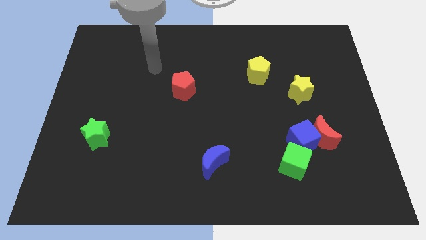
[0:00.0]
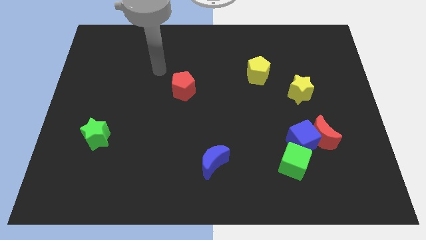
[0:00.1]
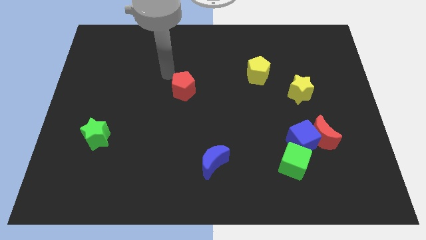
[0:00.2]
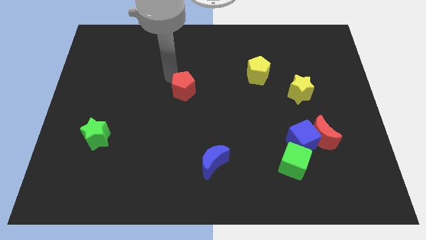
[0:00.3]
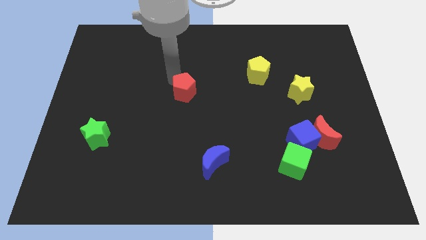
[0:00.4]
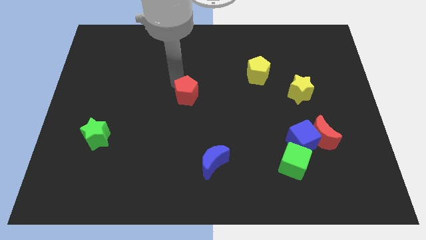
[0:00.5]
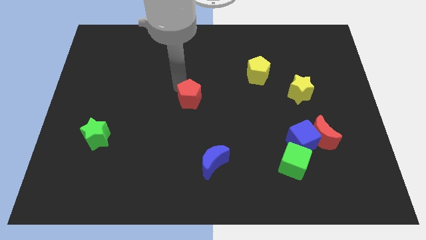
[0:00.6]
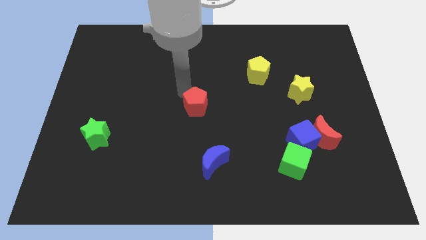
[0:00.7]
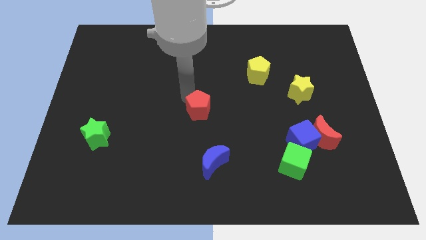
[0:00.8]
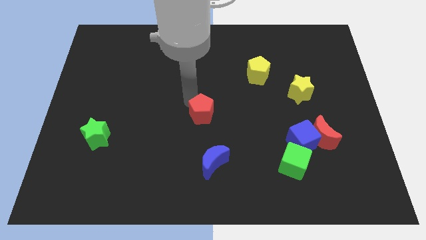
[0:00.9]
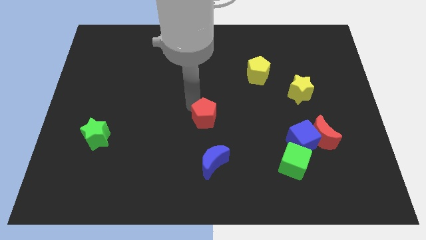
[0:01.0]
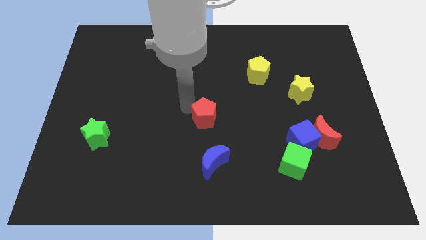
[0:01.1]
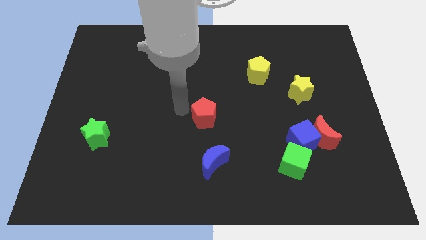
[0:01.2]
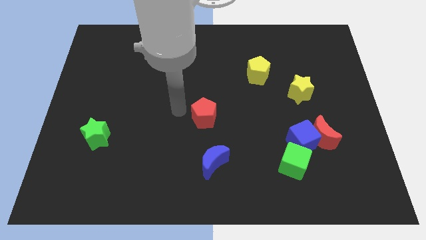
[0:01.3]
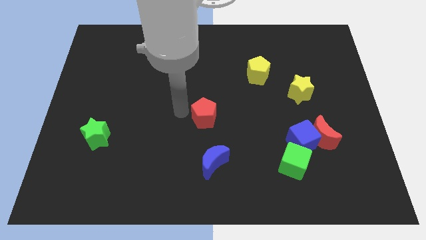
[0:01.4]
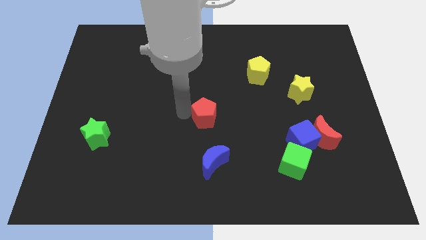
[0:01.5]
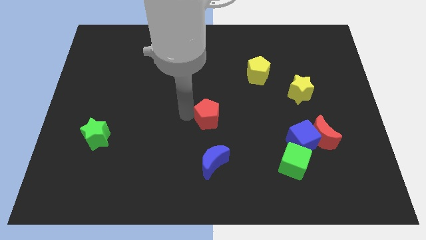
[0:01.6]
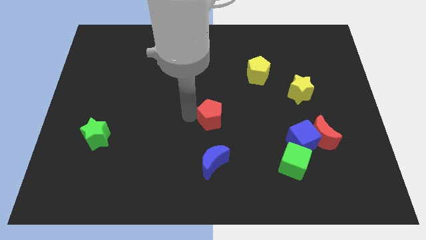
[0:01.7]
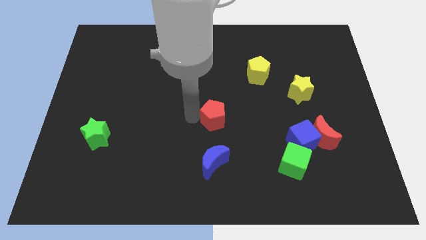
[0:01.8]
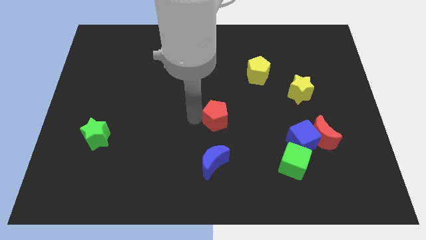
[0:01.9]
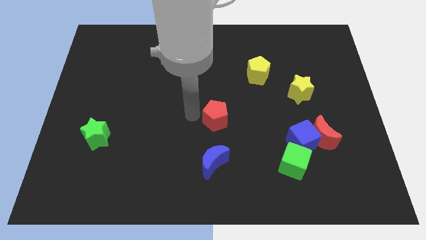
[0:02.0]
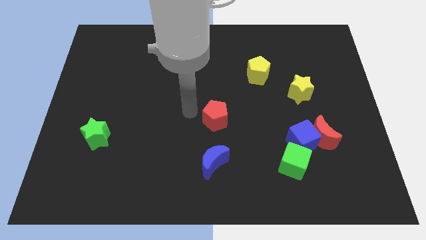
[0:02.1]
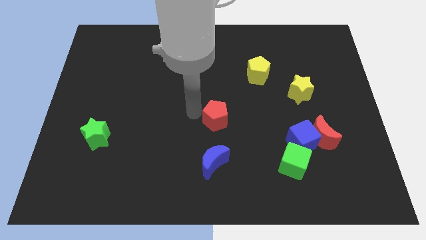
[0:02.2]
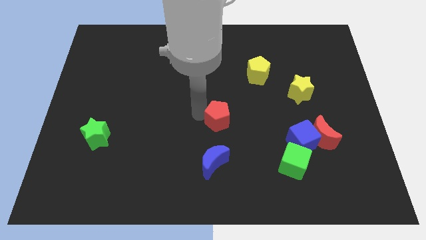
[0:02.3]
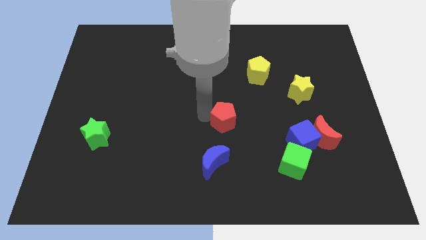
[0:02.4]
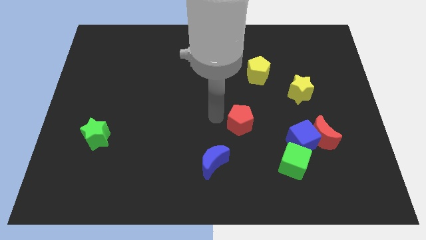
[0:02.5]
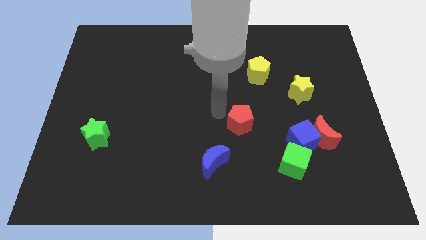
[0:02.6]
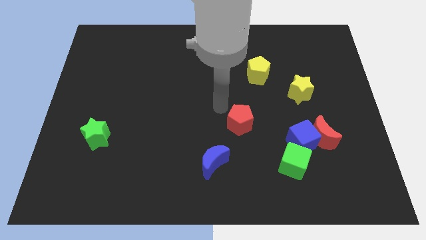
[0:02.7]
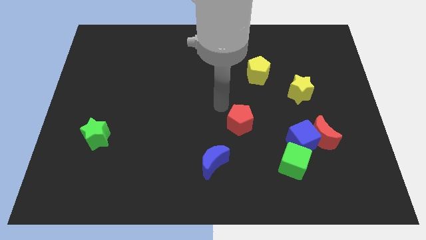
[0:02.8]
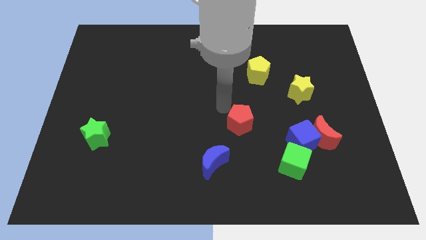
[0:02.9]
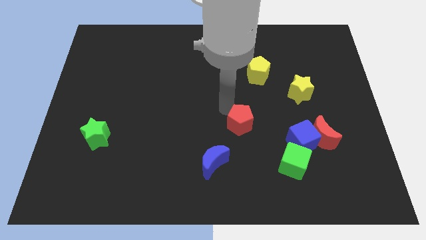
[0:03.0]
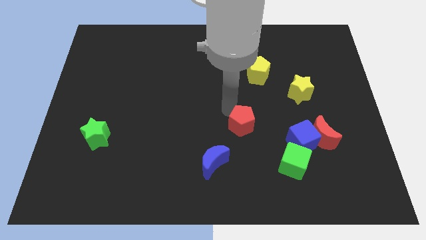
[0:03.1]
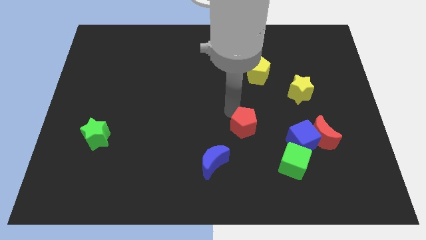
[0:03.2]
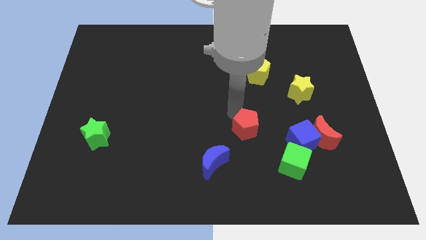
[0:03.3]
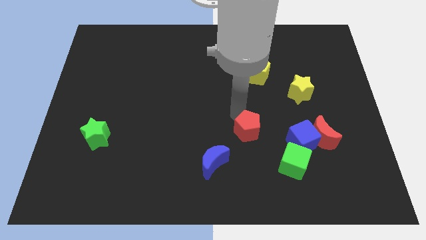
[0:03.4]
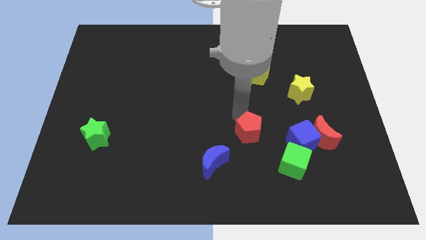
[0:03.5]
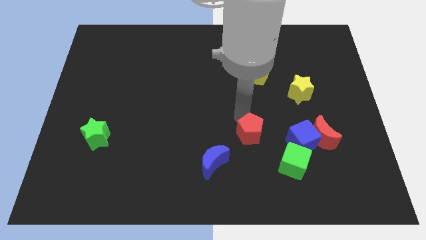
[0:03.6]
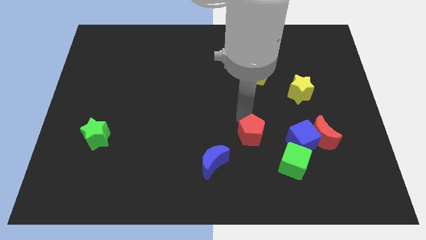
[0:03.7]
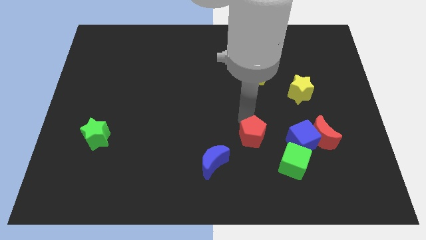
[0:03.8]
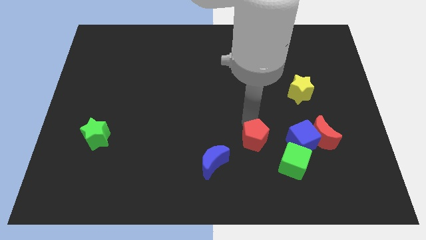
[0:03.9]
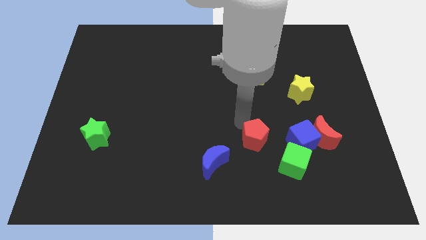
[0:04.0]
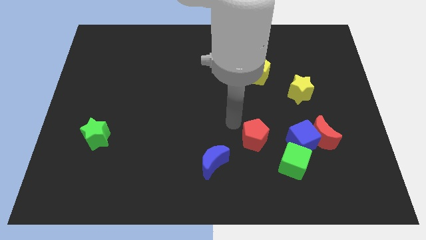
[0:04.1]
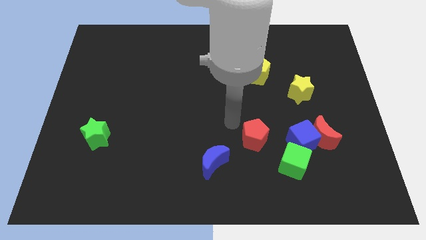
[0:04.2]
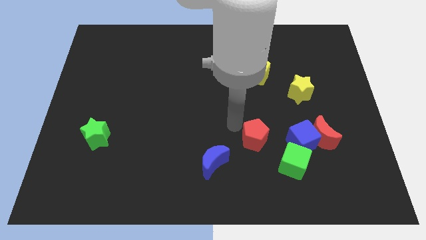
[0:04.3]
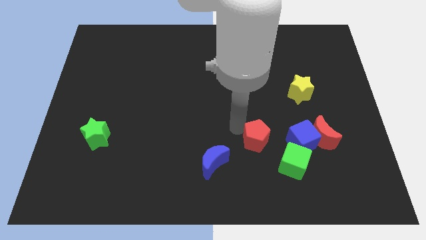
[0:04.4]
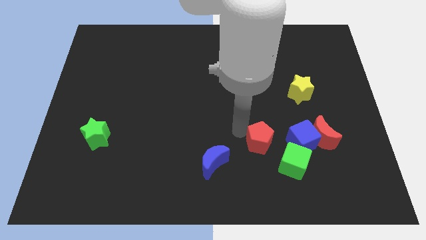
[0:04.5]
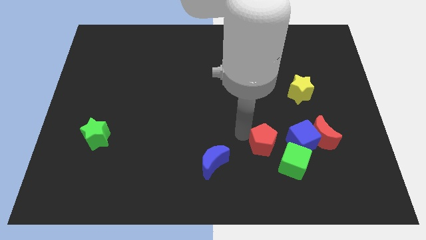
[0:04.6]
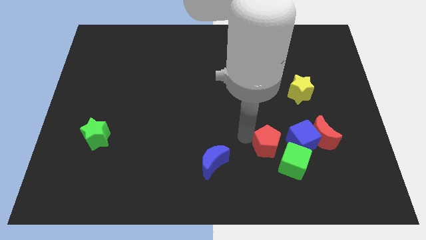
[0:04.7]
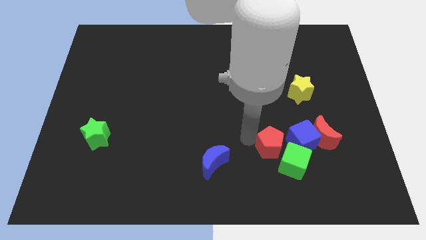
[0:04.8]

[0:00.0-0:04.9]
move the red pentagon next to the green cube

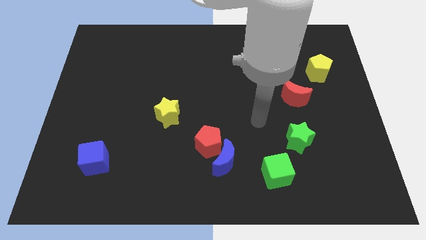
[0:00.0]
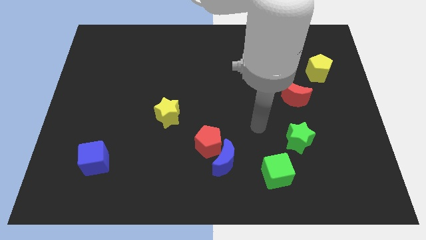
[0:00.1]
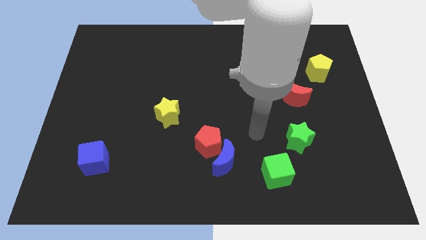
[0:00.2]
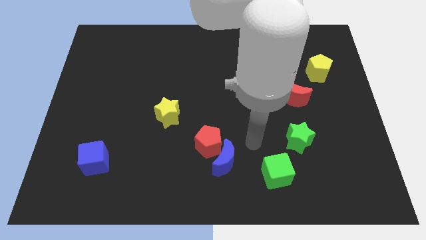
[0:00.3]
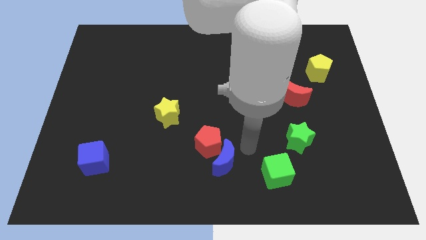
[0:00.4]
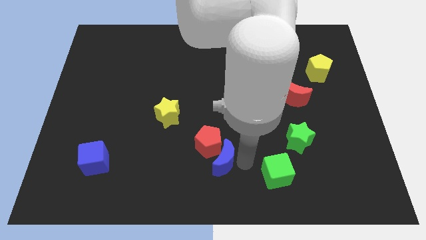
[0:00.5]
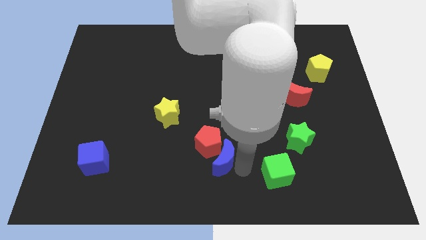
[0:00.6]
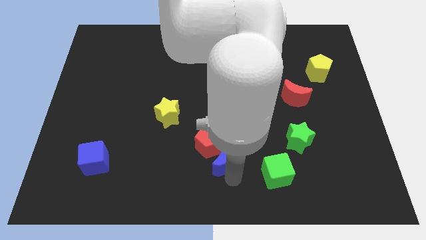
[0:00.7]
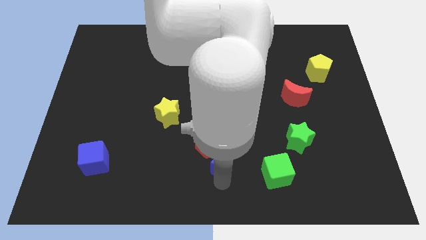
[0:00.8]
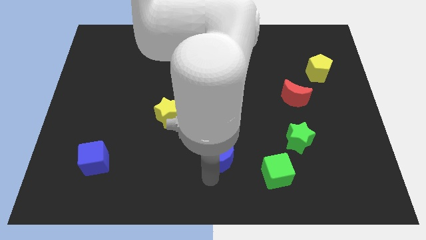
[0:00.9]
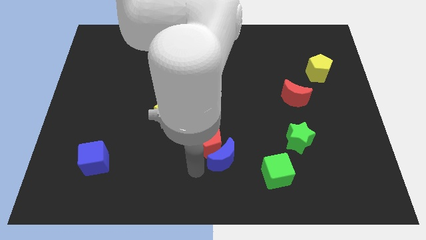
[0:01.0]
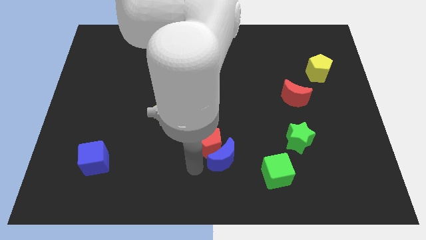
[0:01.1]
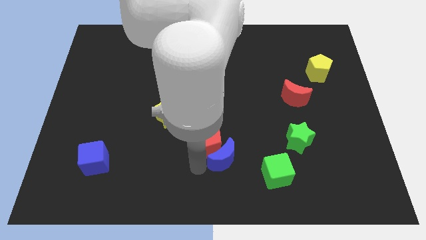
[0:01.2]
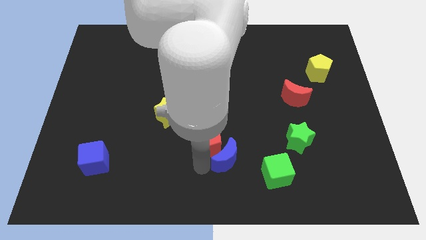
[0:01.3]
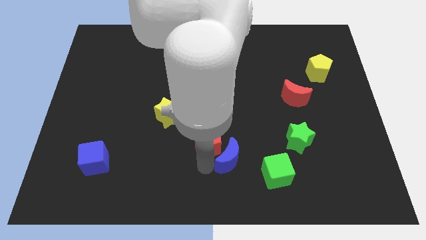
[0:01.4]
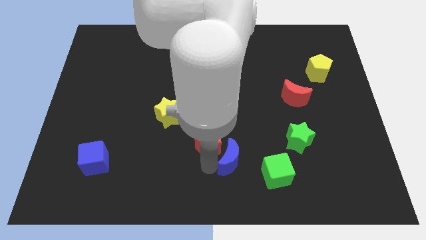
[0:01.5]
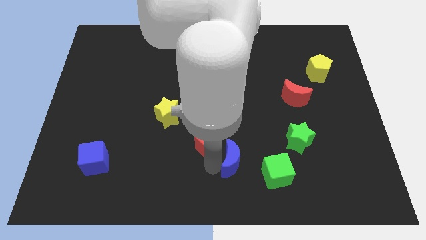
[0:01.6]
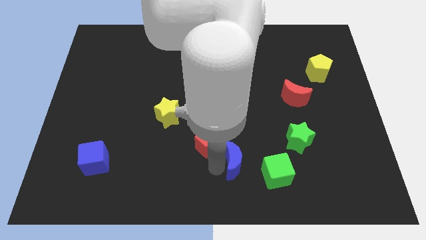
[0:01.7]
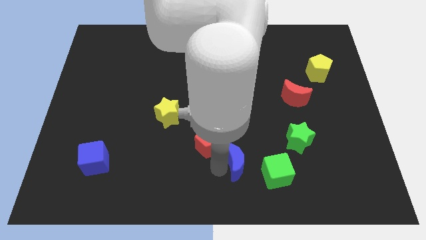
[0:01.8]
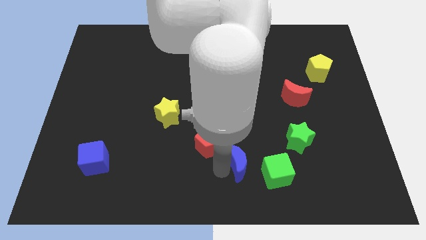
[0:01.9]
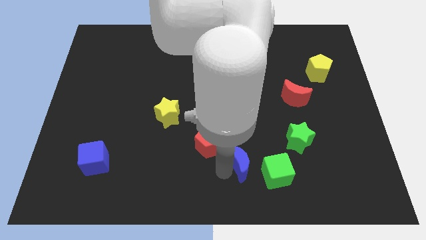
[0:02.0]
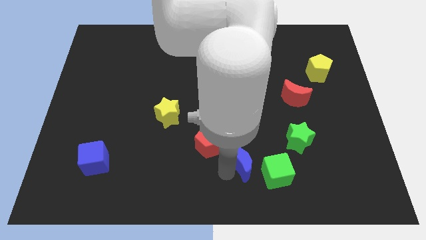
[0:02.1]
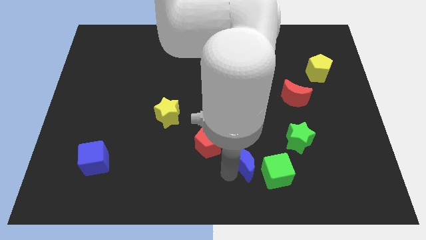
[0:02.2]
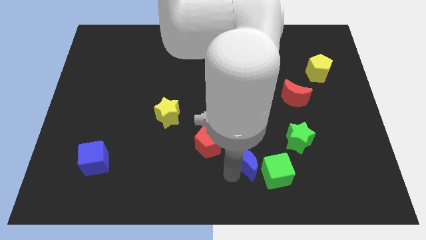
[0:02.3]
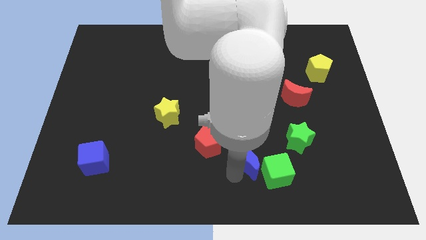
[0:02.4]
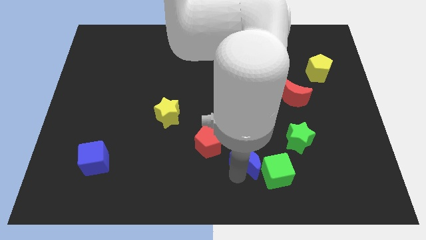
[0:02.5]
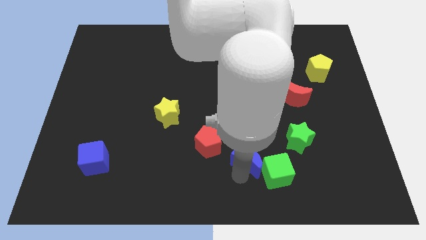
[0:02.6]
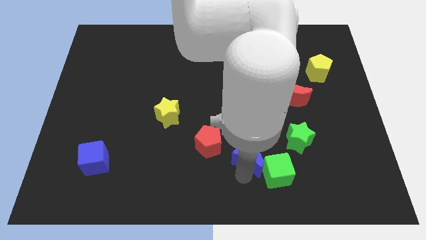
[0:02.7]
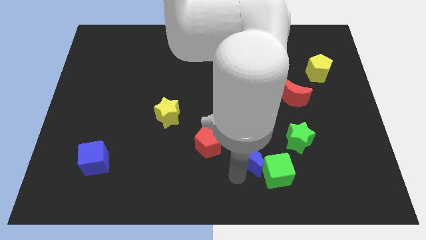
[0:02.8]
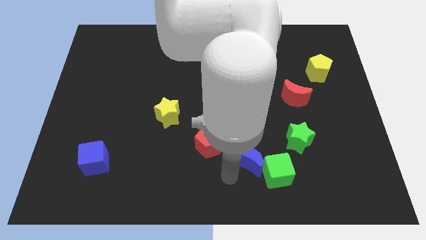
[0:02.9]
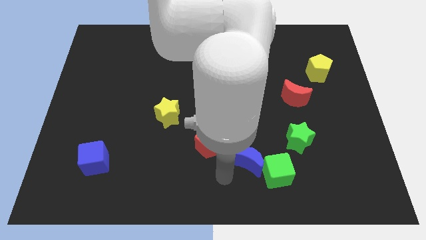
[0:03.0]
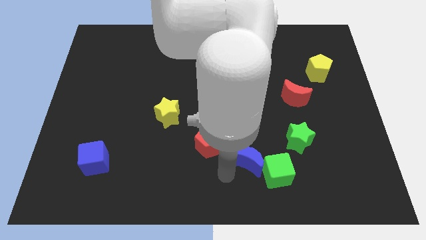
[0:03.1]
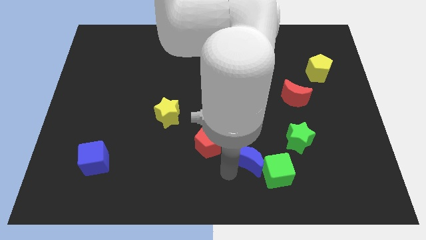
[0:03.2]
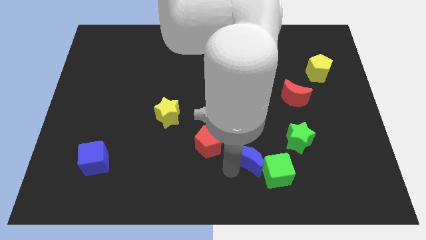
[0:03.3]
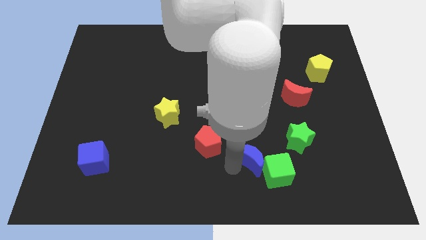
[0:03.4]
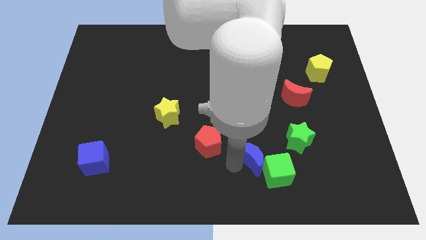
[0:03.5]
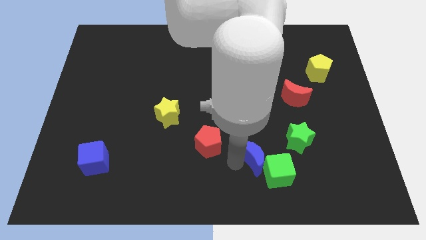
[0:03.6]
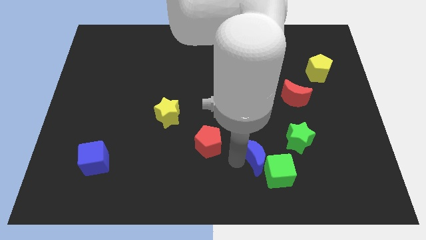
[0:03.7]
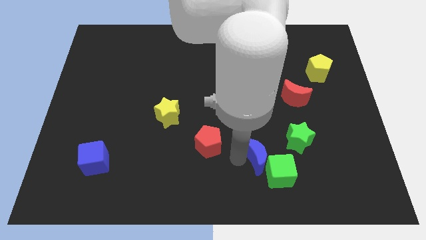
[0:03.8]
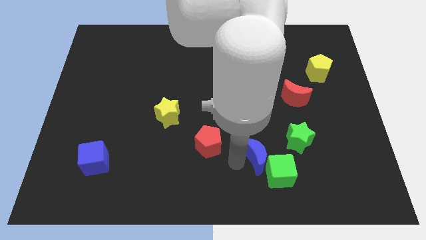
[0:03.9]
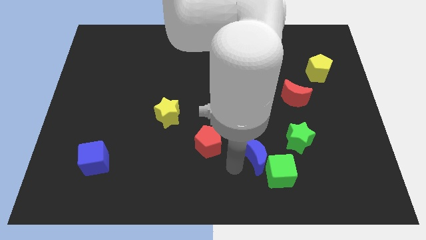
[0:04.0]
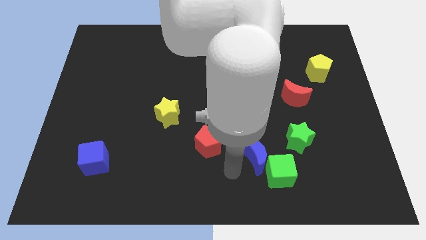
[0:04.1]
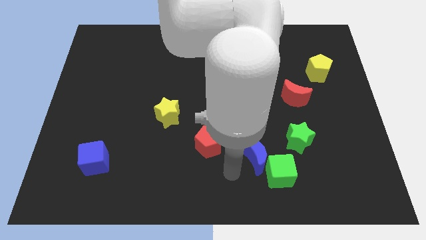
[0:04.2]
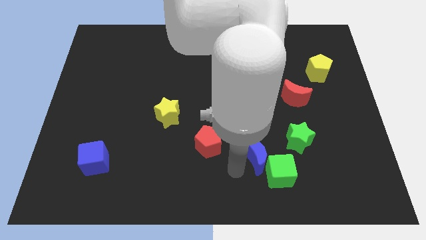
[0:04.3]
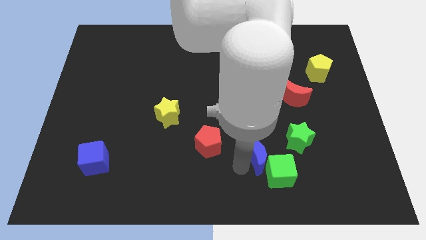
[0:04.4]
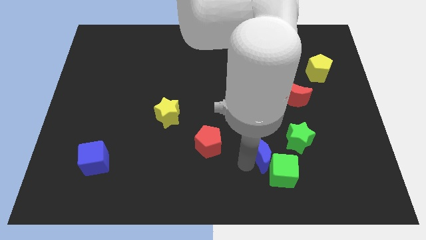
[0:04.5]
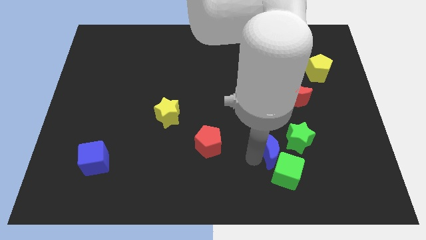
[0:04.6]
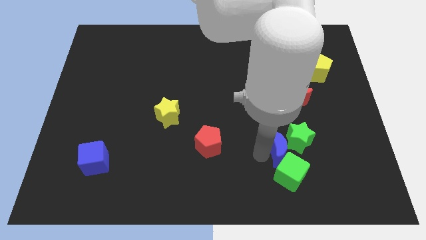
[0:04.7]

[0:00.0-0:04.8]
put the blue moon towards the green star
